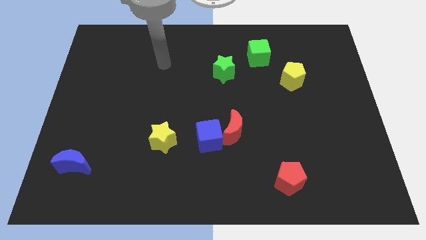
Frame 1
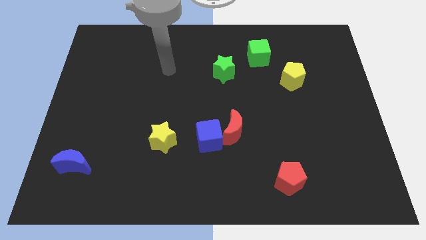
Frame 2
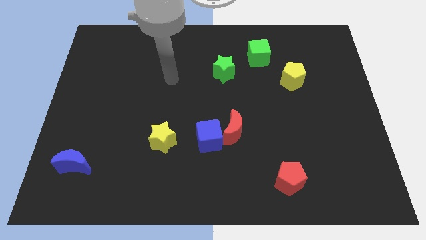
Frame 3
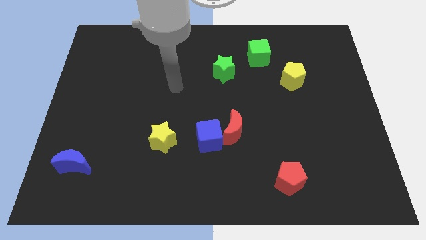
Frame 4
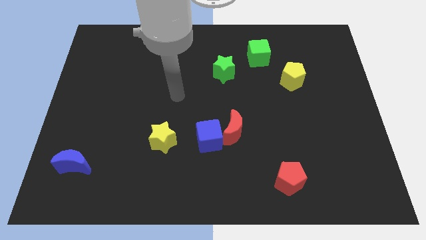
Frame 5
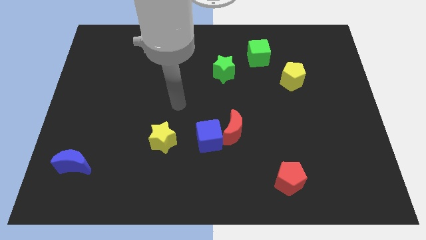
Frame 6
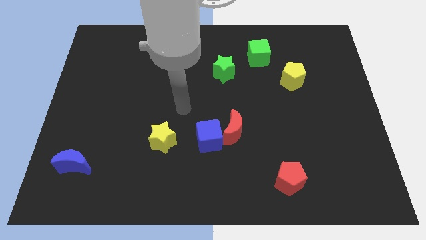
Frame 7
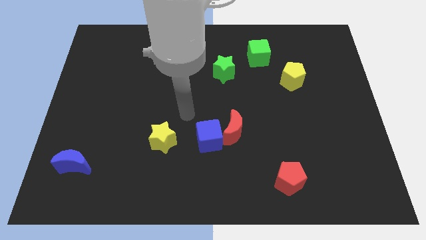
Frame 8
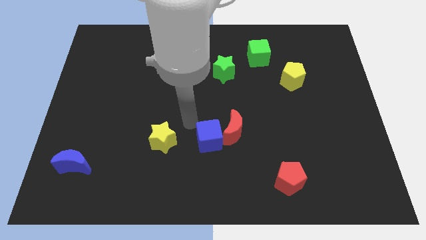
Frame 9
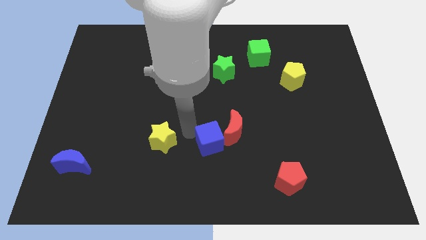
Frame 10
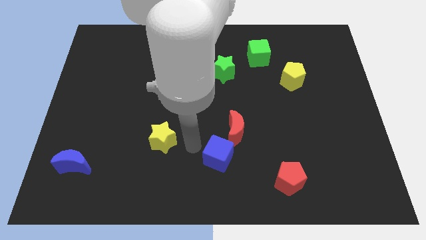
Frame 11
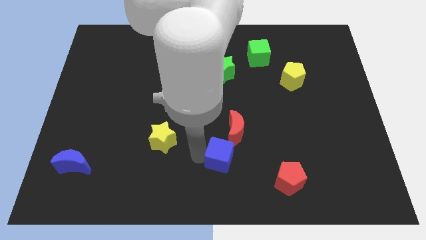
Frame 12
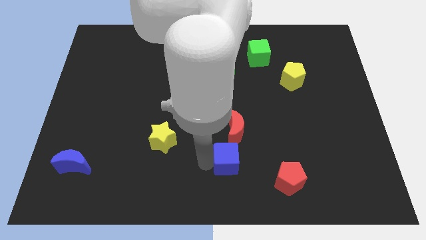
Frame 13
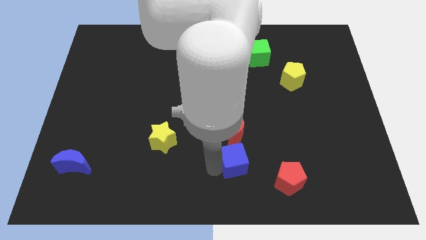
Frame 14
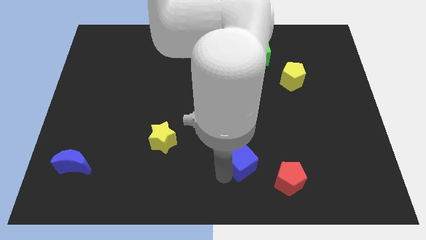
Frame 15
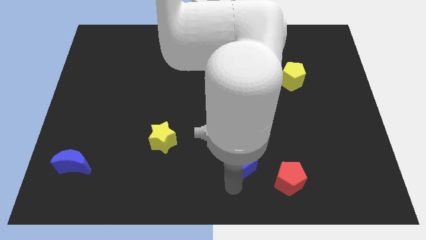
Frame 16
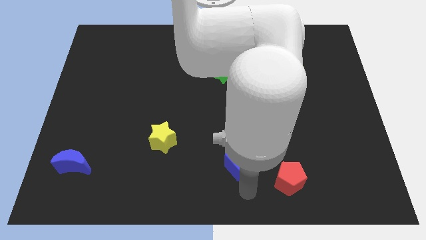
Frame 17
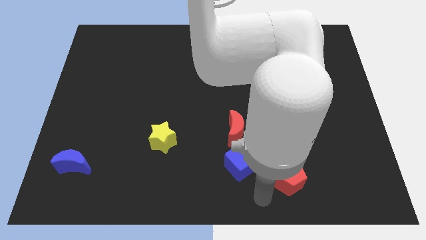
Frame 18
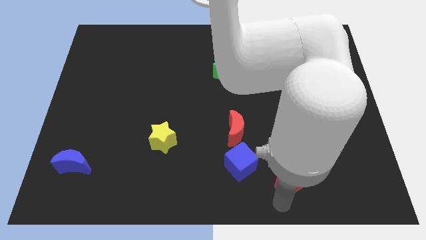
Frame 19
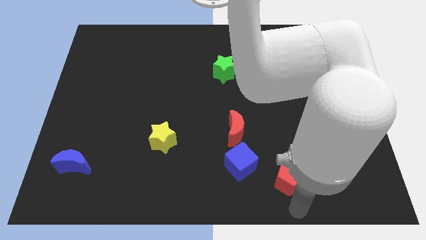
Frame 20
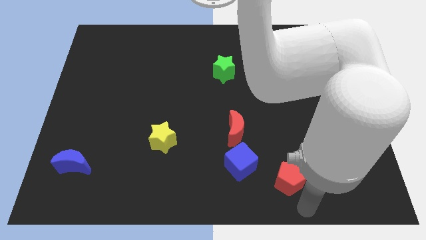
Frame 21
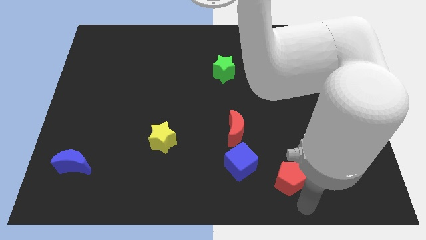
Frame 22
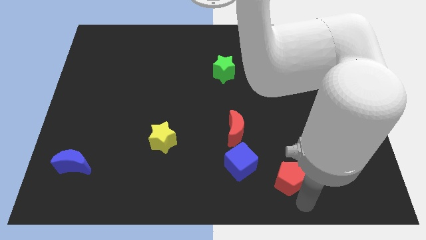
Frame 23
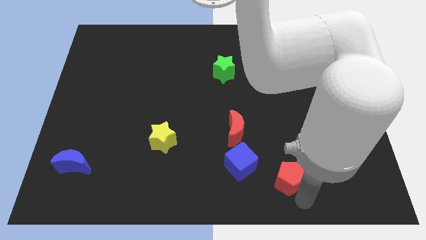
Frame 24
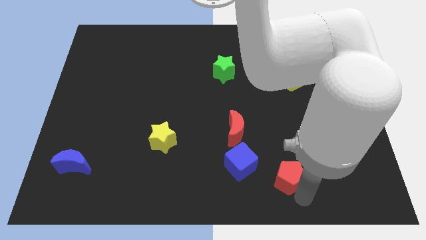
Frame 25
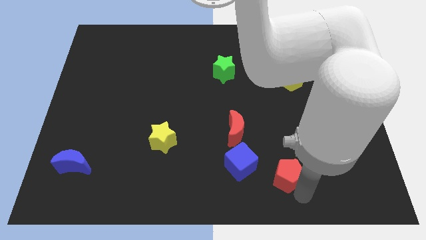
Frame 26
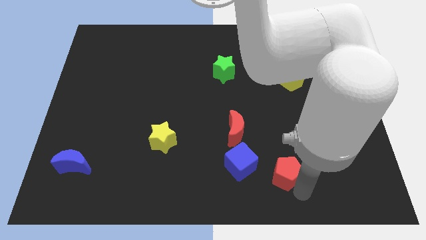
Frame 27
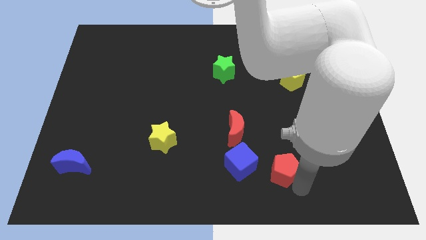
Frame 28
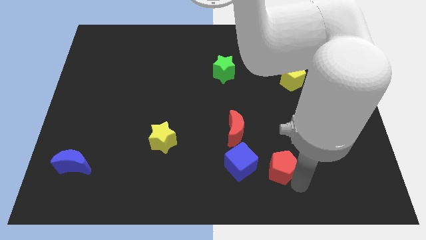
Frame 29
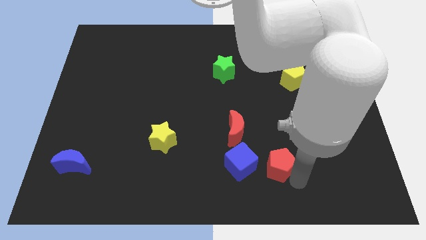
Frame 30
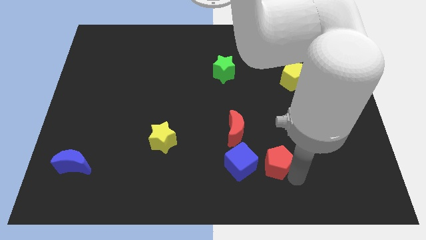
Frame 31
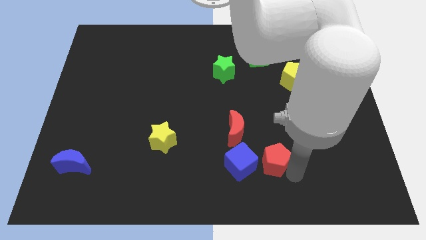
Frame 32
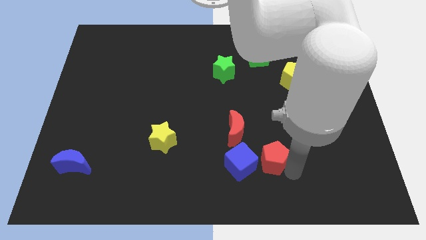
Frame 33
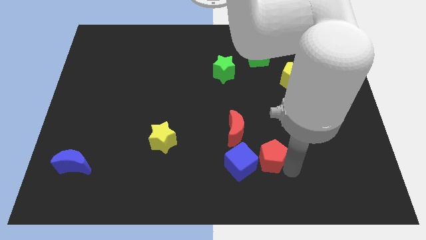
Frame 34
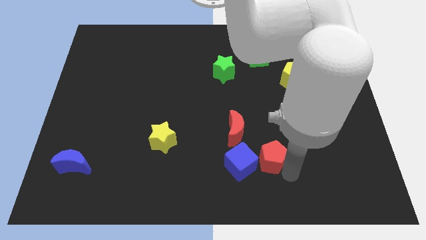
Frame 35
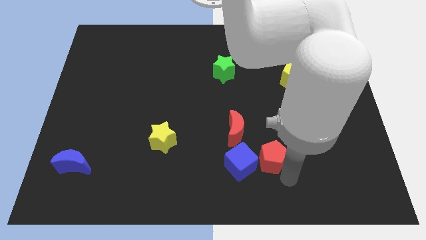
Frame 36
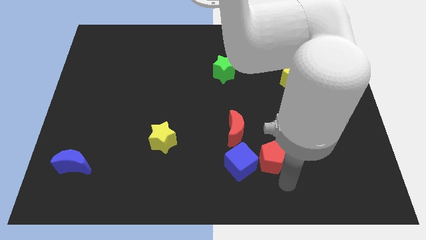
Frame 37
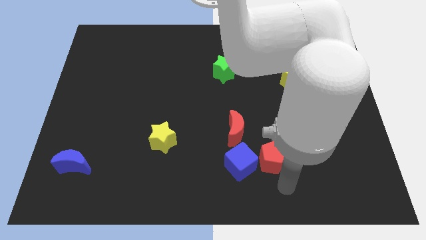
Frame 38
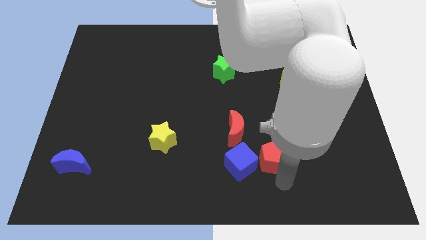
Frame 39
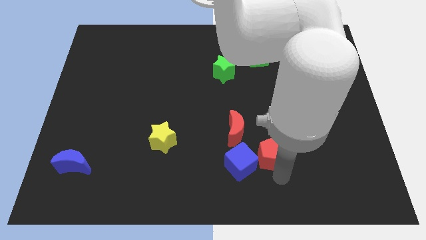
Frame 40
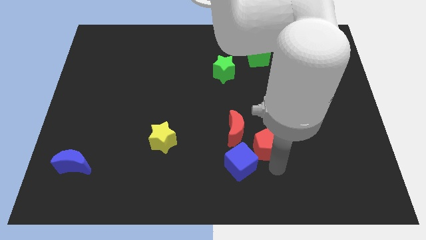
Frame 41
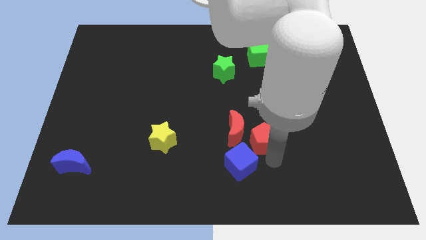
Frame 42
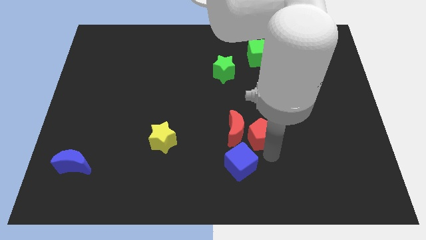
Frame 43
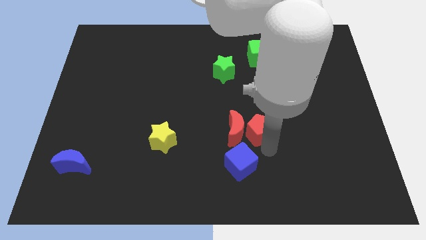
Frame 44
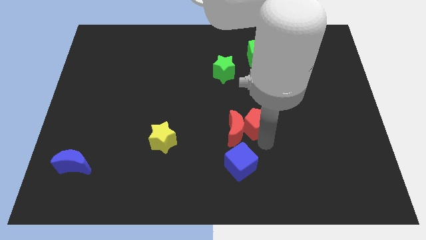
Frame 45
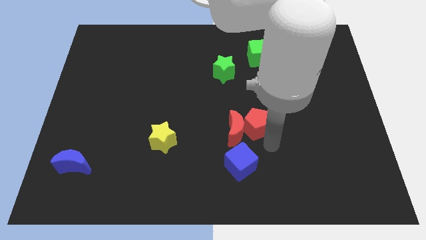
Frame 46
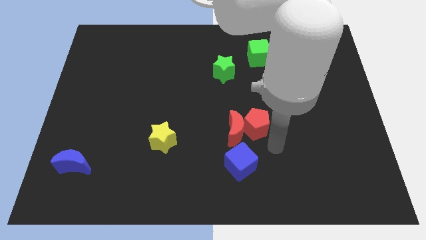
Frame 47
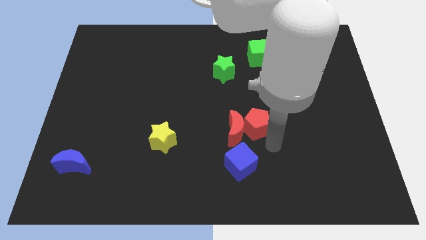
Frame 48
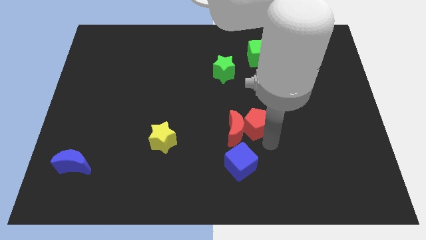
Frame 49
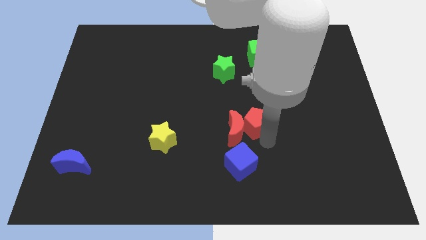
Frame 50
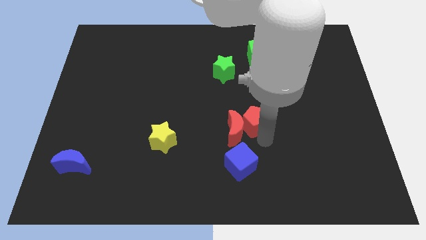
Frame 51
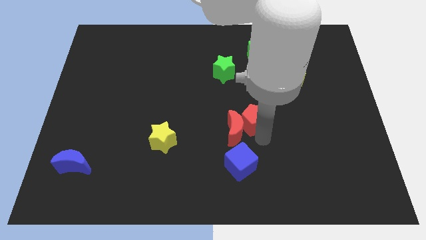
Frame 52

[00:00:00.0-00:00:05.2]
put the red pentagon to the top side of the red moon

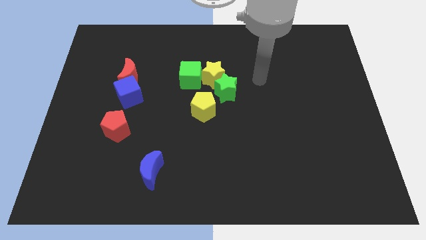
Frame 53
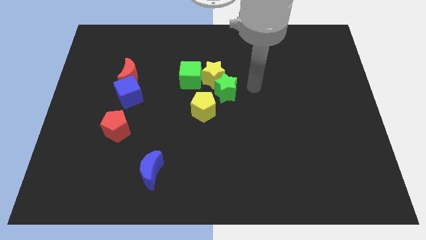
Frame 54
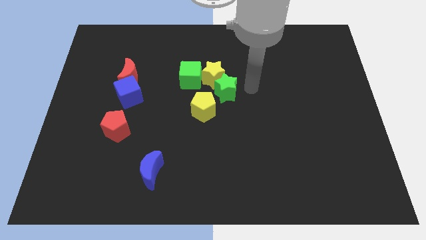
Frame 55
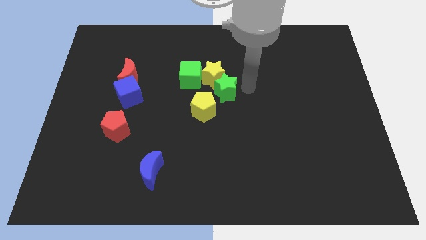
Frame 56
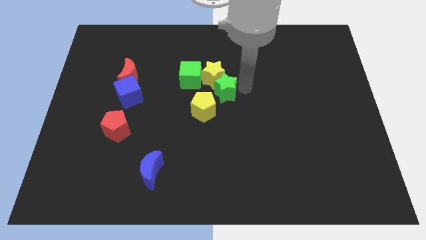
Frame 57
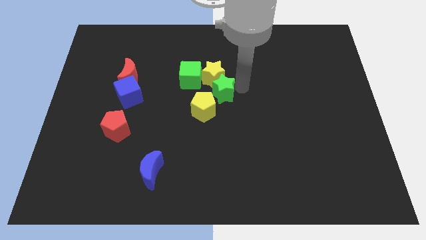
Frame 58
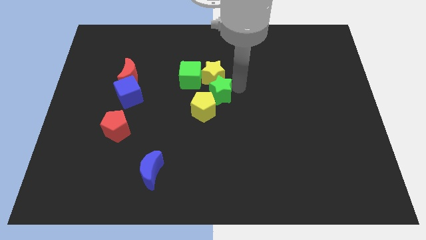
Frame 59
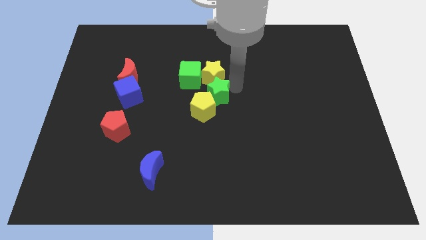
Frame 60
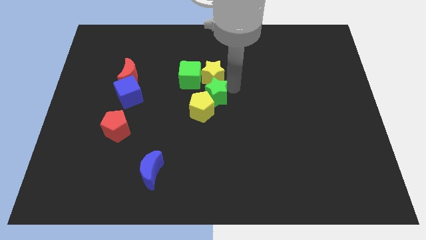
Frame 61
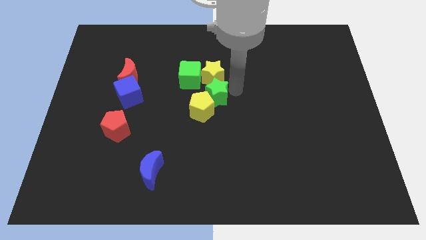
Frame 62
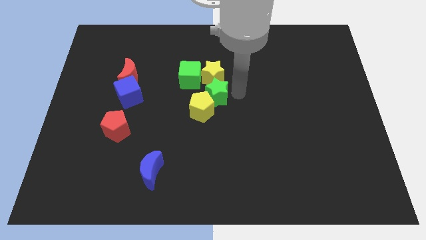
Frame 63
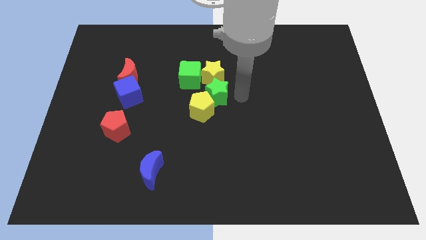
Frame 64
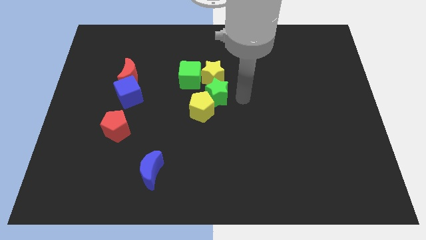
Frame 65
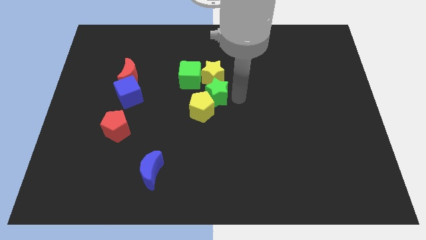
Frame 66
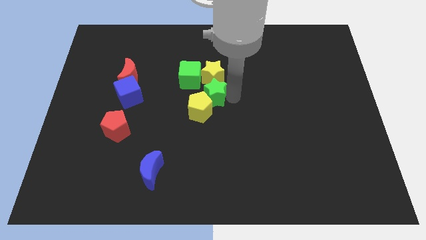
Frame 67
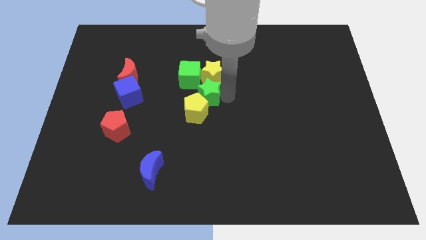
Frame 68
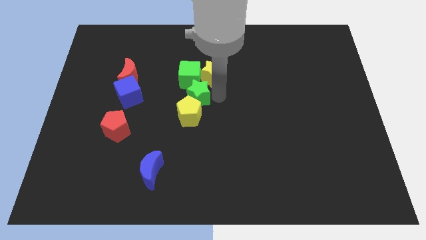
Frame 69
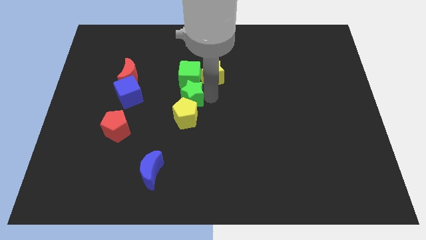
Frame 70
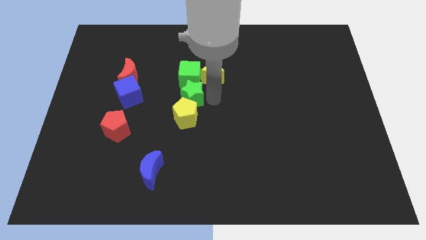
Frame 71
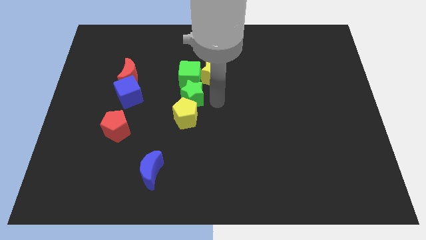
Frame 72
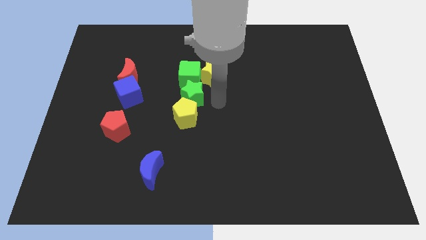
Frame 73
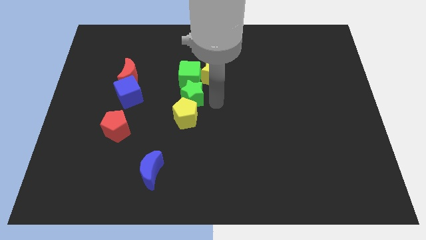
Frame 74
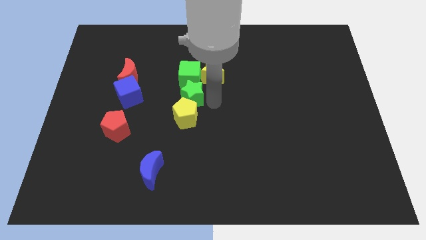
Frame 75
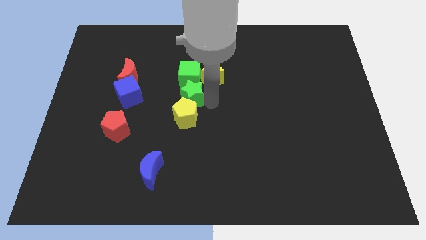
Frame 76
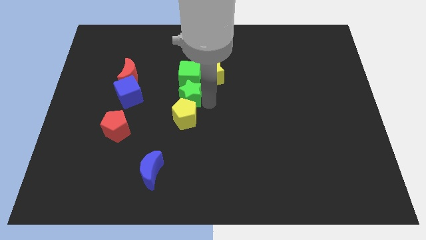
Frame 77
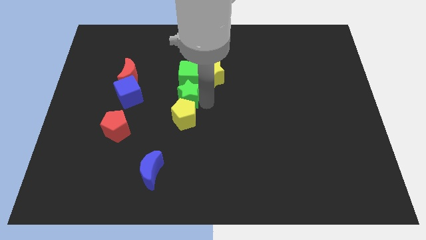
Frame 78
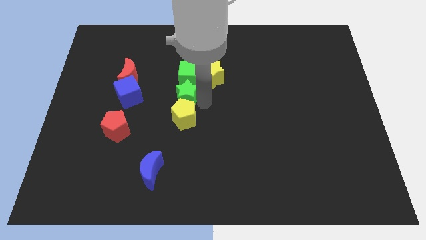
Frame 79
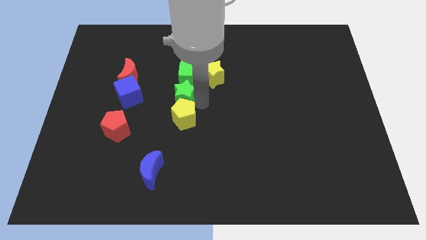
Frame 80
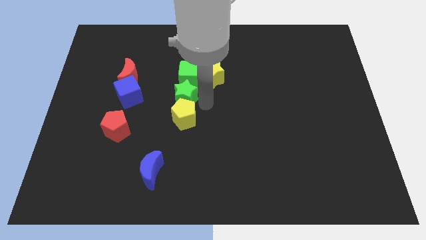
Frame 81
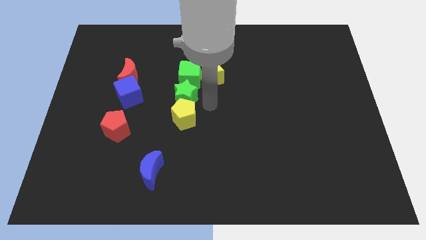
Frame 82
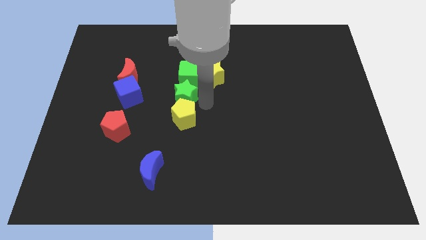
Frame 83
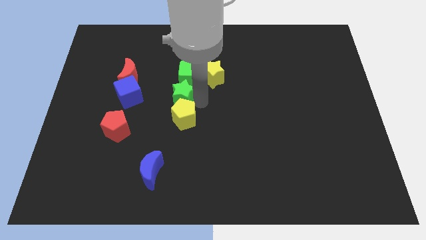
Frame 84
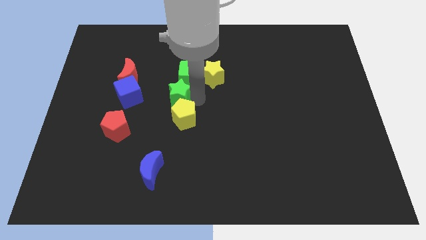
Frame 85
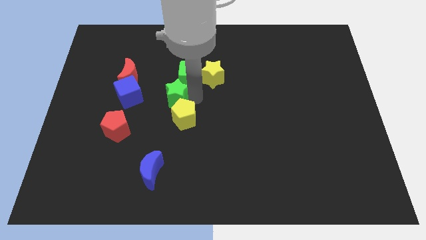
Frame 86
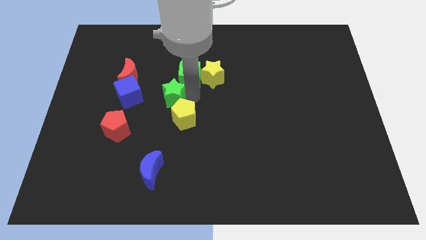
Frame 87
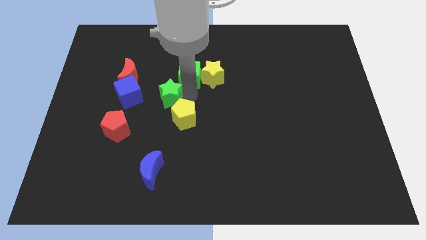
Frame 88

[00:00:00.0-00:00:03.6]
put the green star diagonally down and to the right of the red moon
